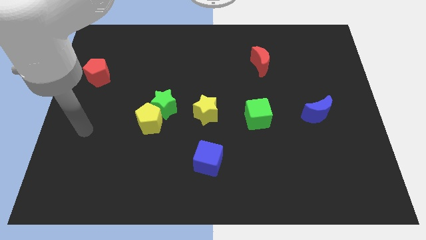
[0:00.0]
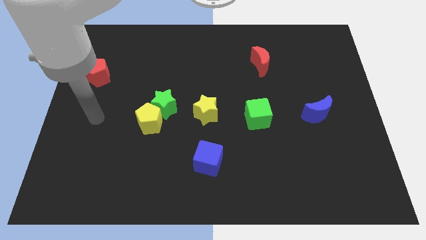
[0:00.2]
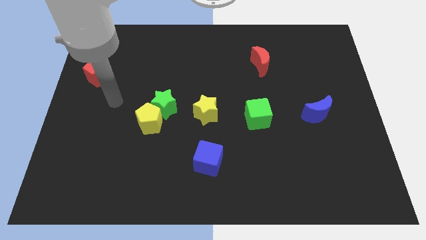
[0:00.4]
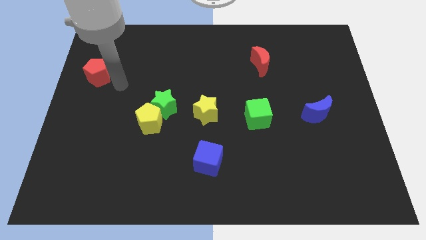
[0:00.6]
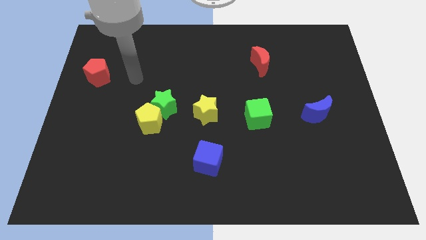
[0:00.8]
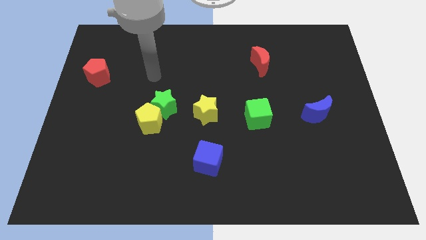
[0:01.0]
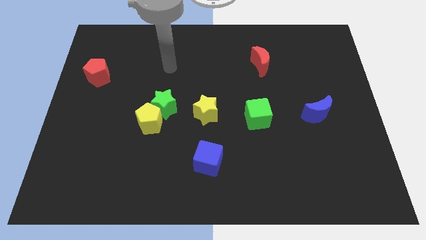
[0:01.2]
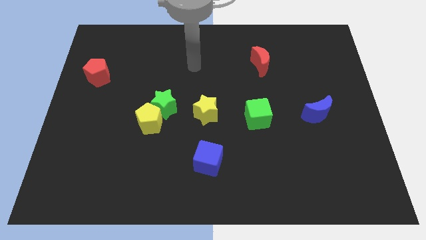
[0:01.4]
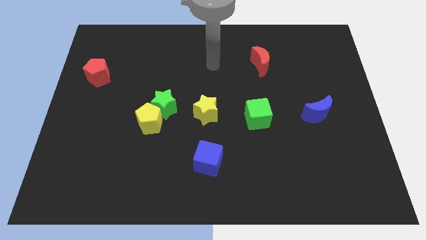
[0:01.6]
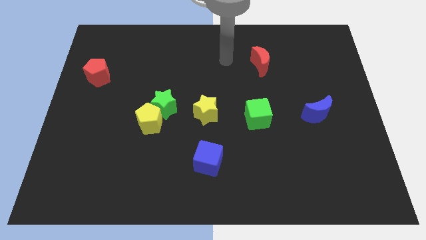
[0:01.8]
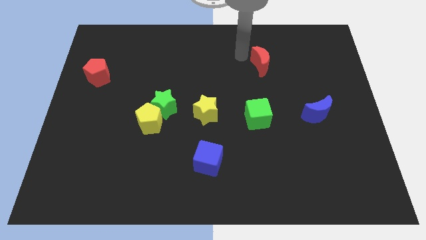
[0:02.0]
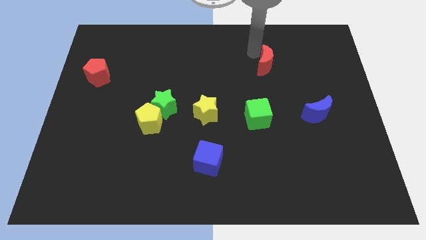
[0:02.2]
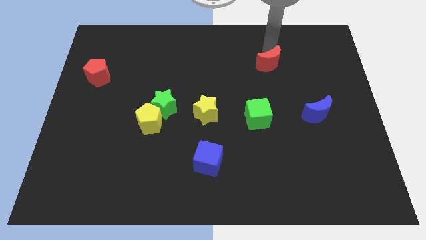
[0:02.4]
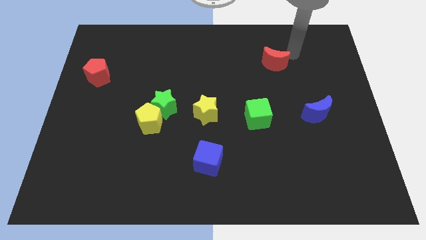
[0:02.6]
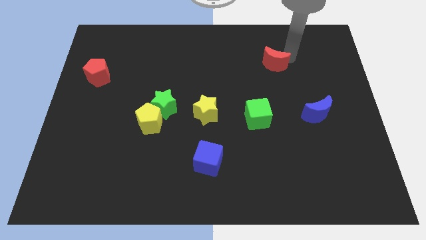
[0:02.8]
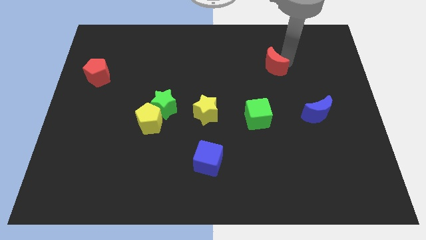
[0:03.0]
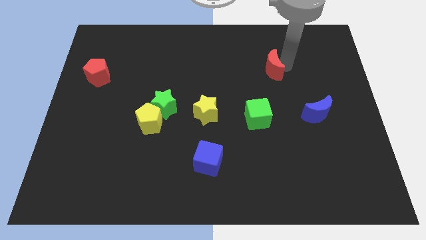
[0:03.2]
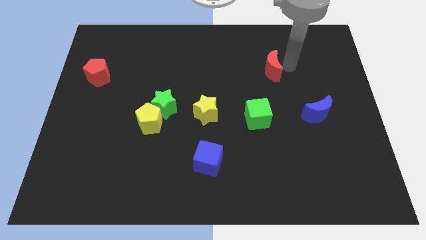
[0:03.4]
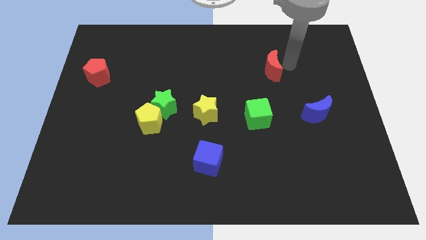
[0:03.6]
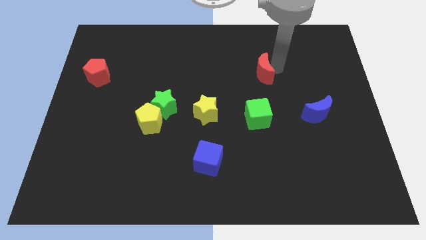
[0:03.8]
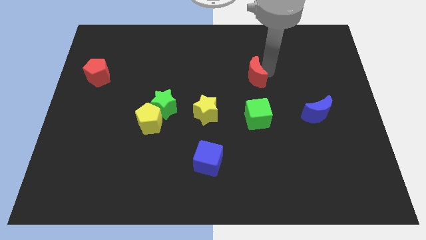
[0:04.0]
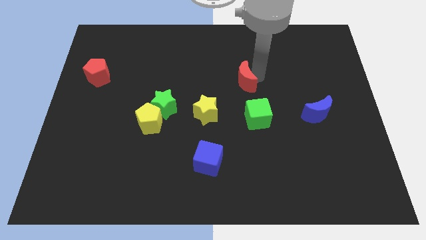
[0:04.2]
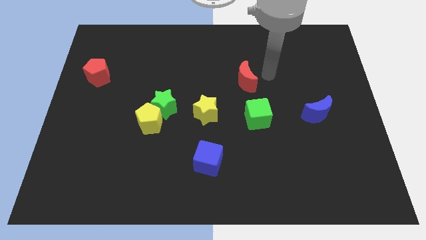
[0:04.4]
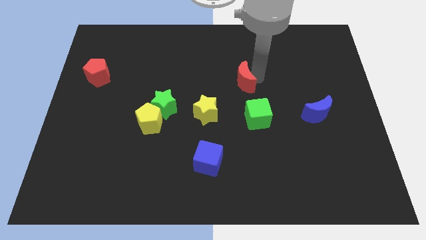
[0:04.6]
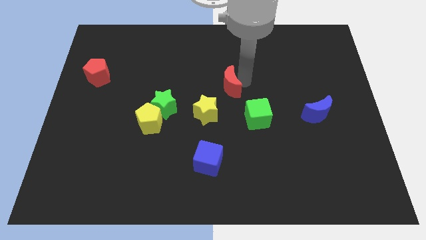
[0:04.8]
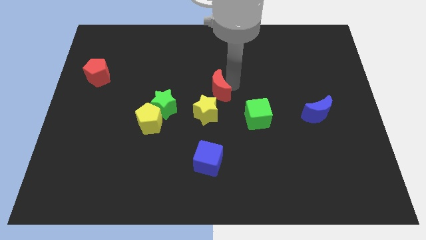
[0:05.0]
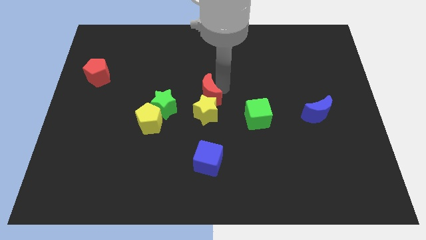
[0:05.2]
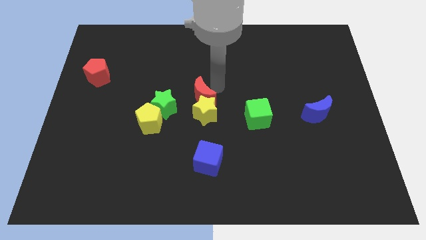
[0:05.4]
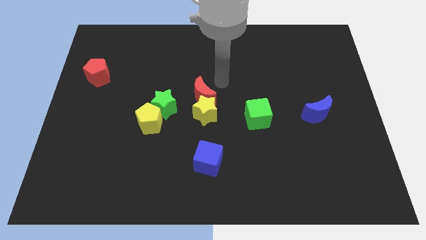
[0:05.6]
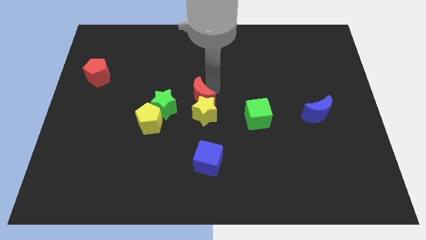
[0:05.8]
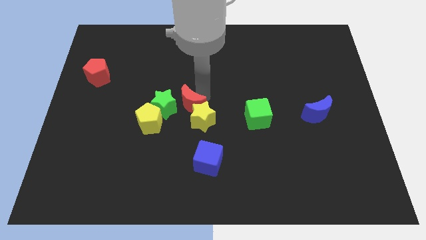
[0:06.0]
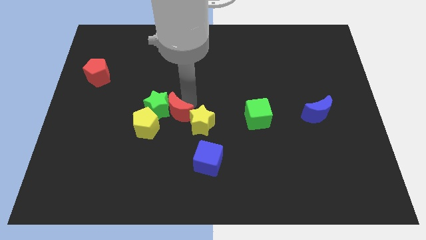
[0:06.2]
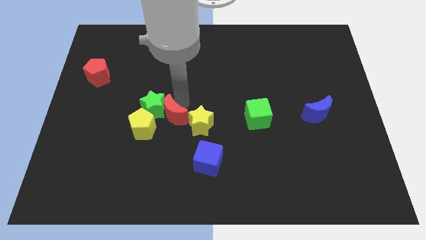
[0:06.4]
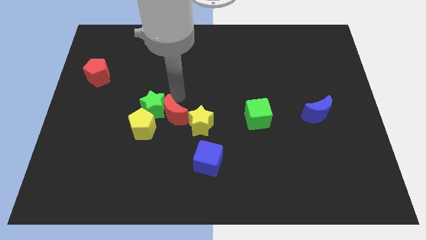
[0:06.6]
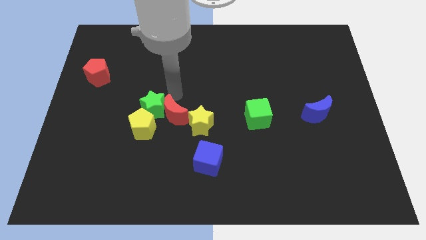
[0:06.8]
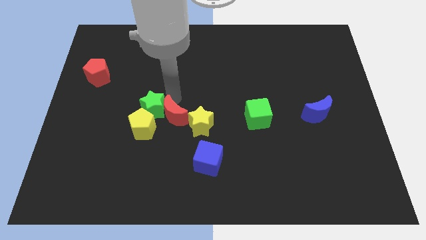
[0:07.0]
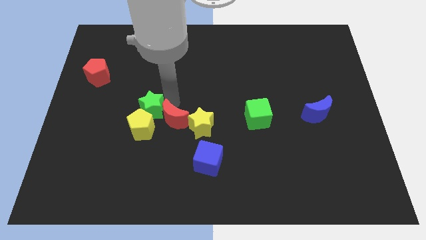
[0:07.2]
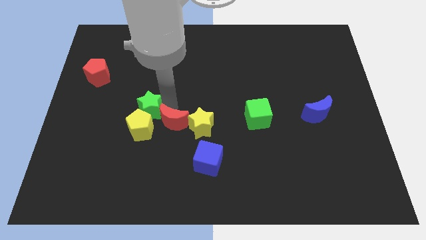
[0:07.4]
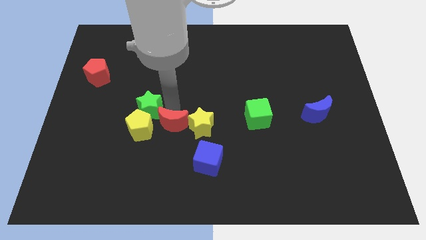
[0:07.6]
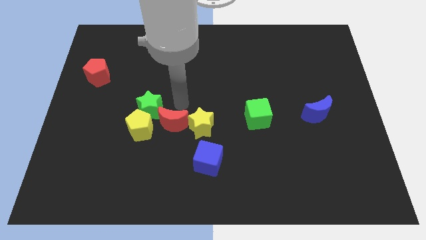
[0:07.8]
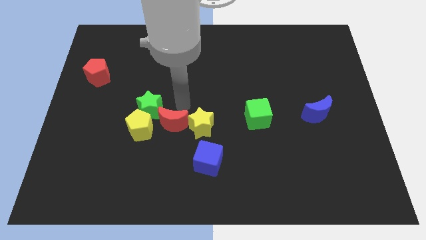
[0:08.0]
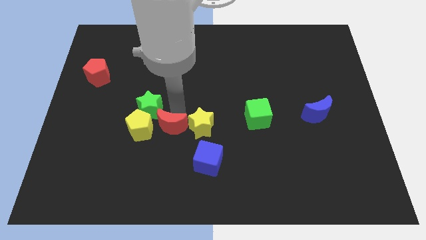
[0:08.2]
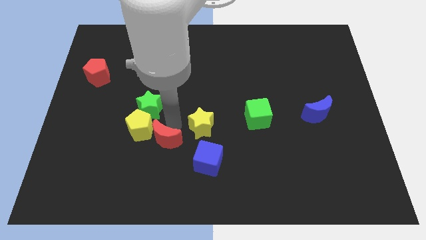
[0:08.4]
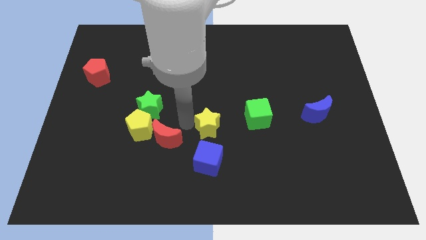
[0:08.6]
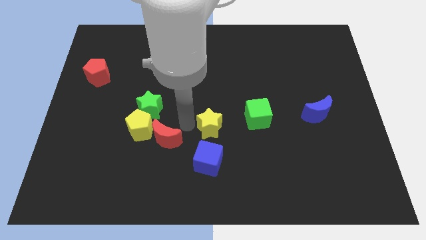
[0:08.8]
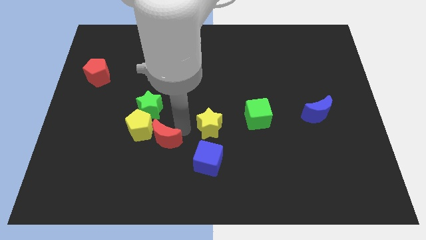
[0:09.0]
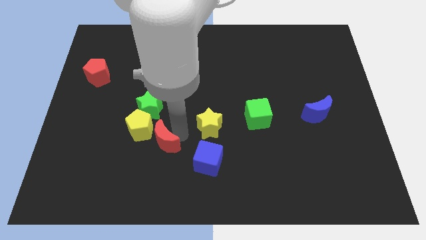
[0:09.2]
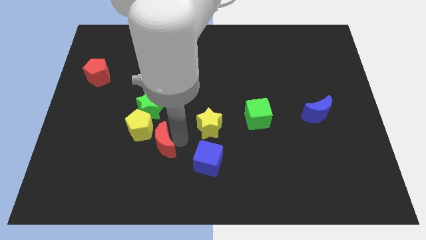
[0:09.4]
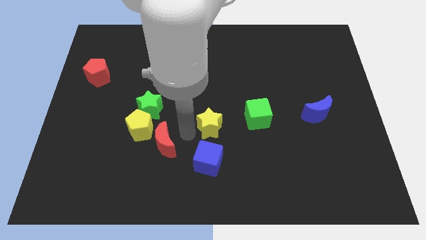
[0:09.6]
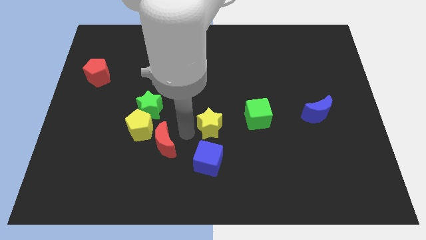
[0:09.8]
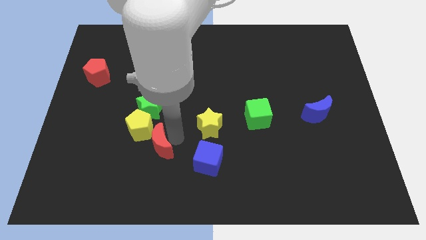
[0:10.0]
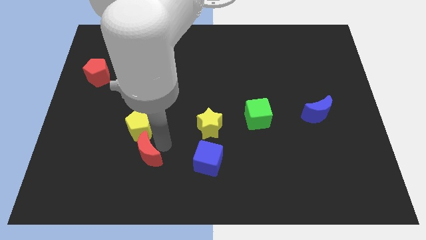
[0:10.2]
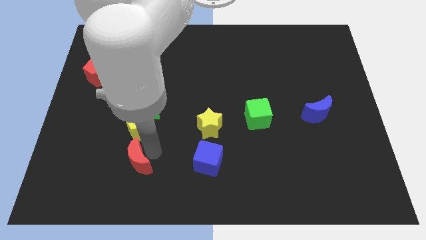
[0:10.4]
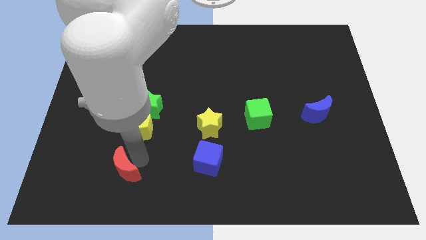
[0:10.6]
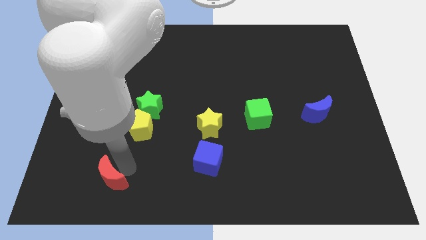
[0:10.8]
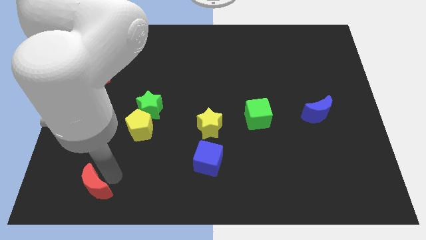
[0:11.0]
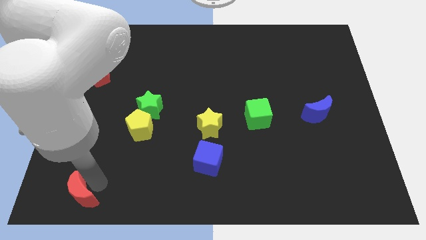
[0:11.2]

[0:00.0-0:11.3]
push the red moon to the lower left corner

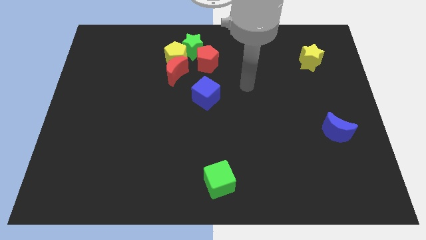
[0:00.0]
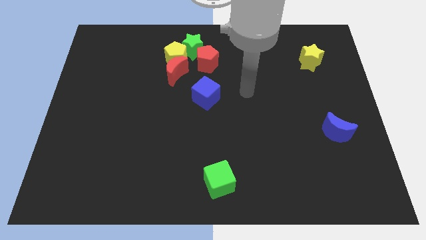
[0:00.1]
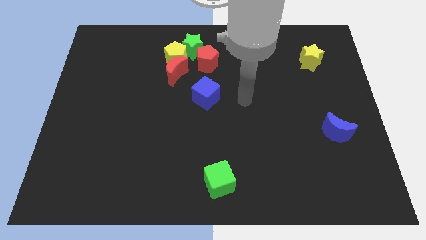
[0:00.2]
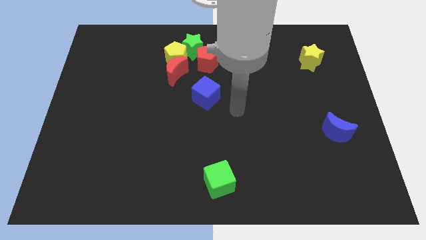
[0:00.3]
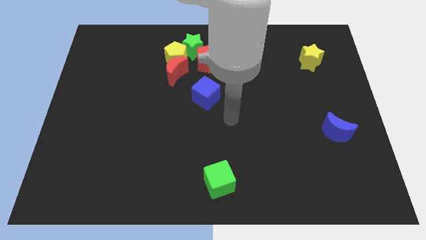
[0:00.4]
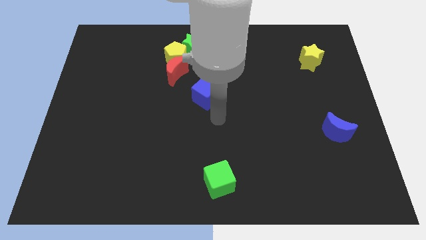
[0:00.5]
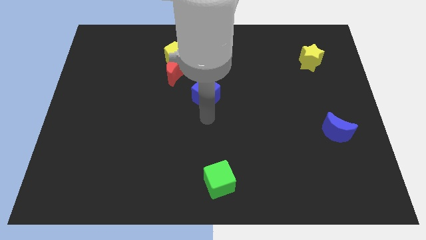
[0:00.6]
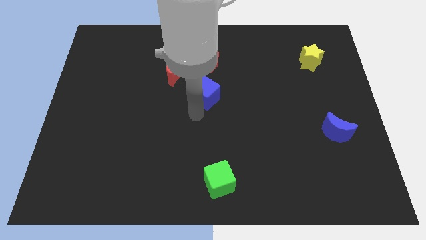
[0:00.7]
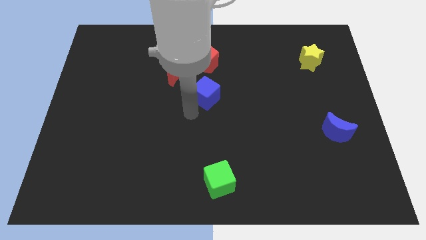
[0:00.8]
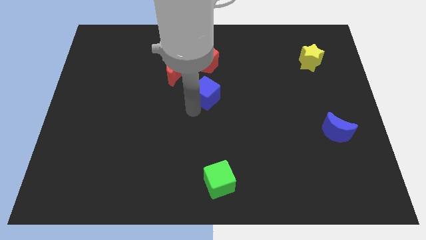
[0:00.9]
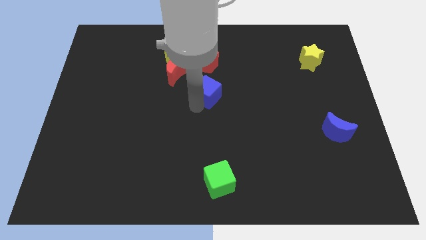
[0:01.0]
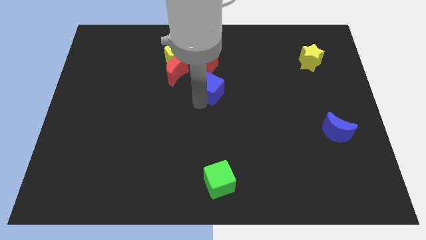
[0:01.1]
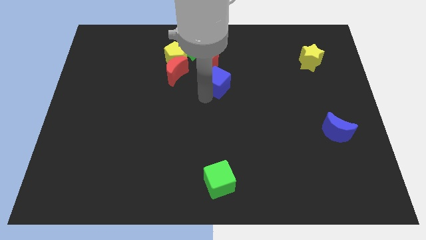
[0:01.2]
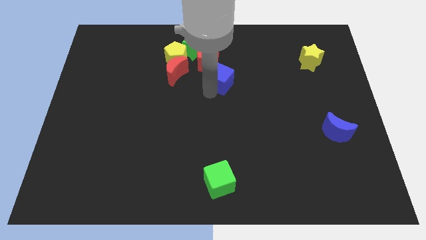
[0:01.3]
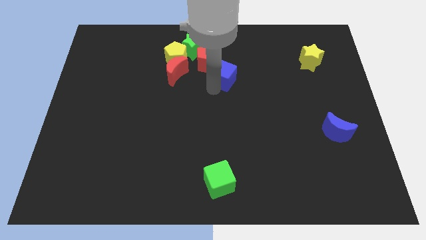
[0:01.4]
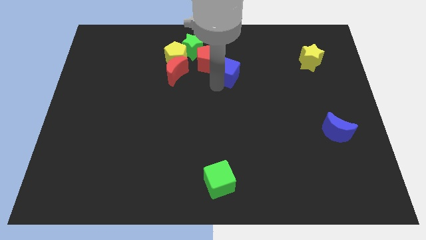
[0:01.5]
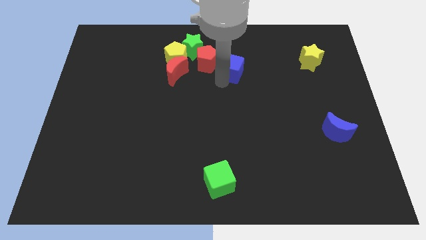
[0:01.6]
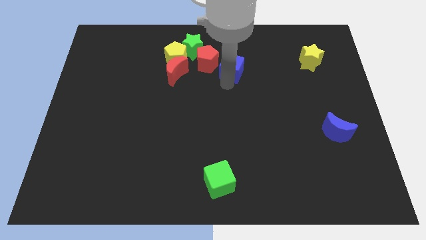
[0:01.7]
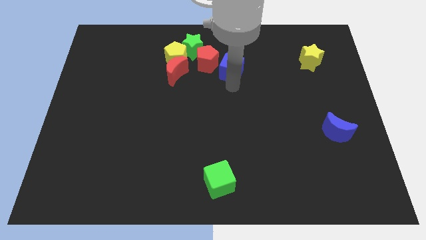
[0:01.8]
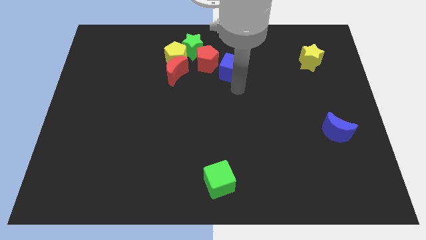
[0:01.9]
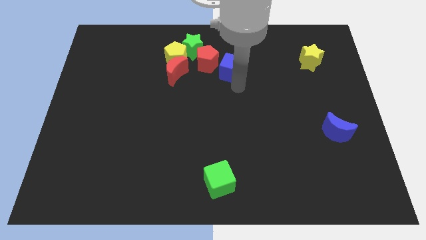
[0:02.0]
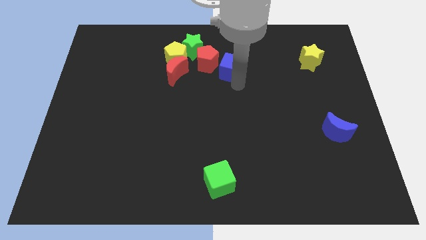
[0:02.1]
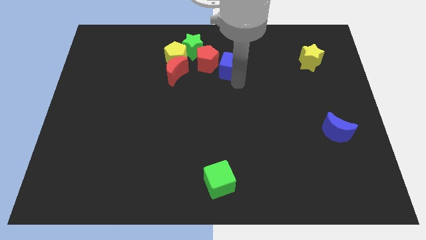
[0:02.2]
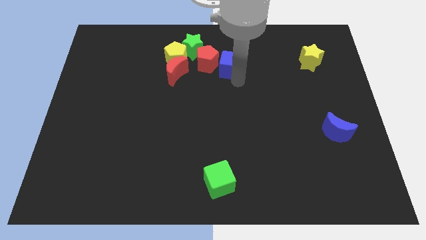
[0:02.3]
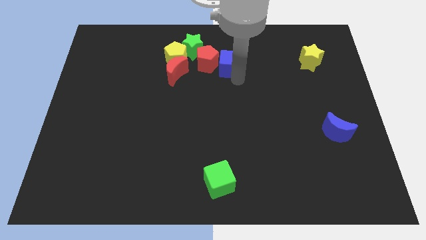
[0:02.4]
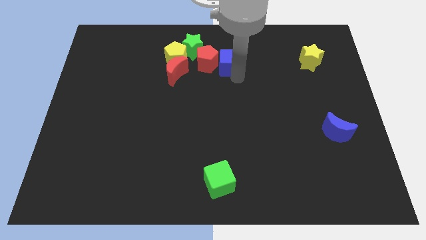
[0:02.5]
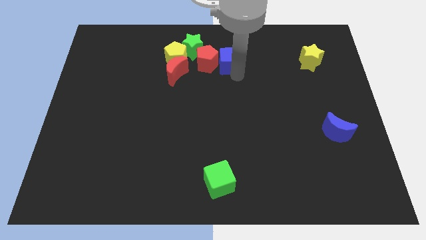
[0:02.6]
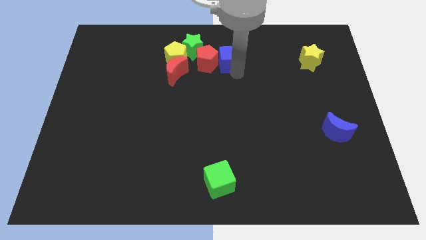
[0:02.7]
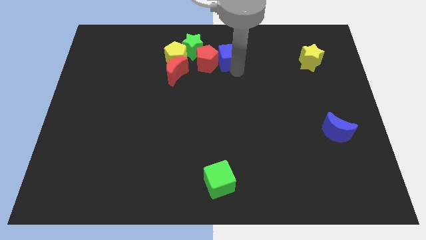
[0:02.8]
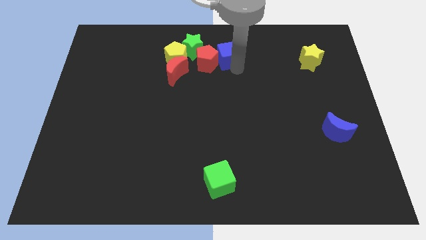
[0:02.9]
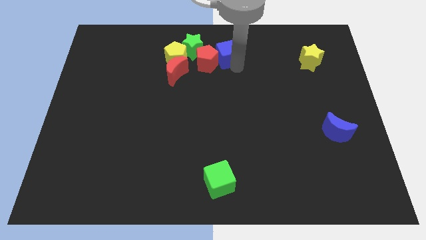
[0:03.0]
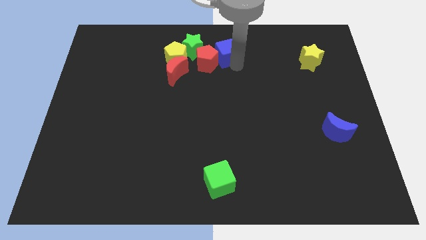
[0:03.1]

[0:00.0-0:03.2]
move the blue cube to the top side
